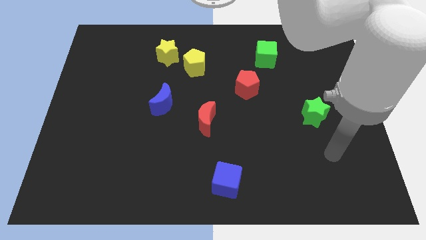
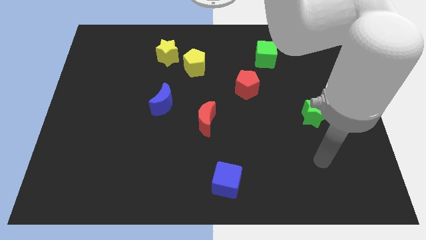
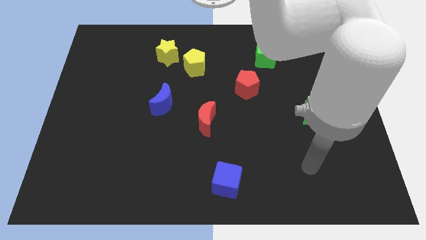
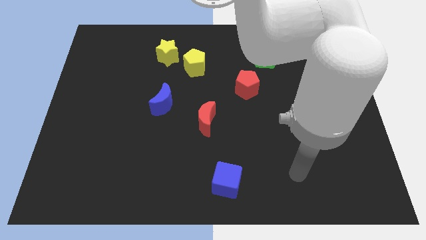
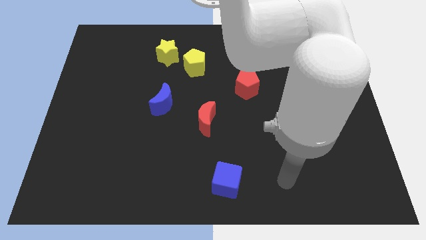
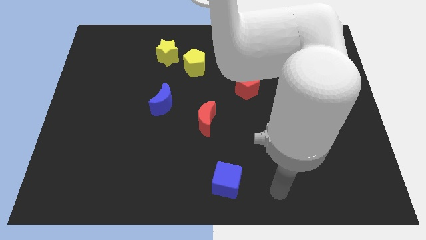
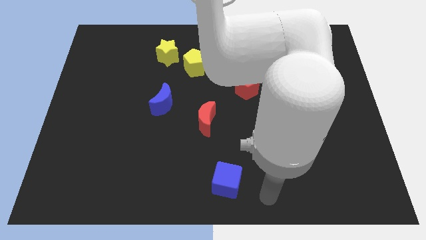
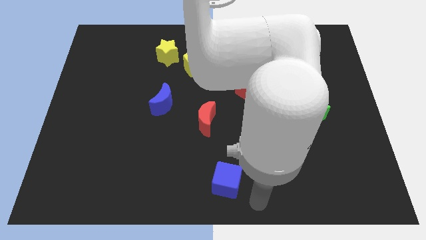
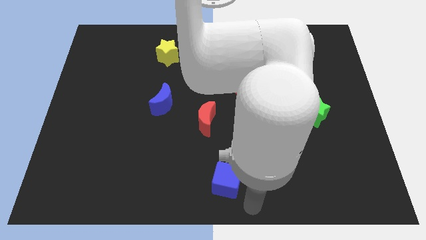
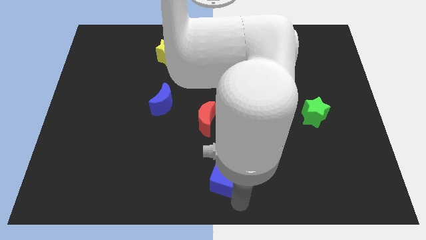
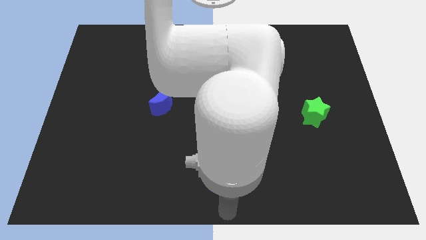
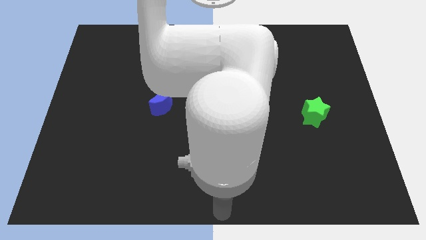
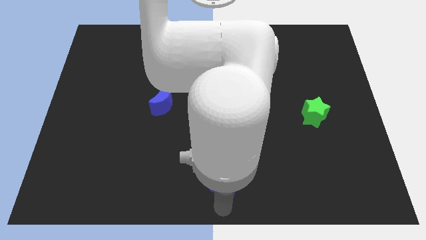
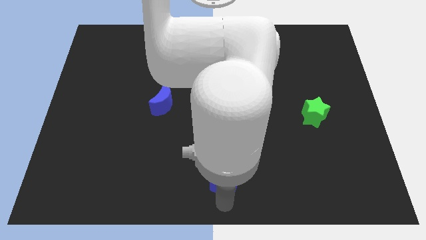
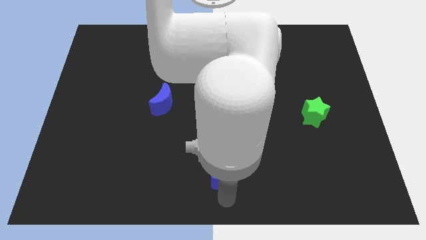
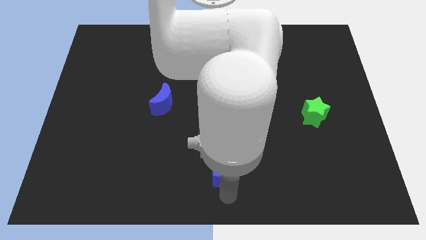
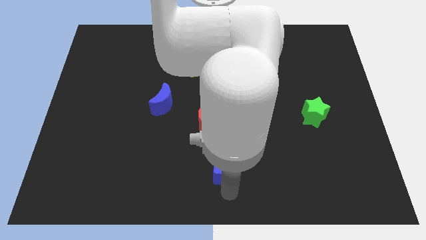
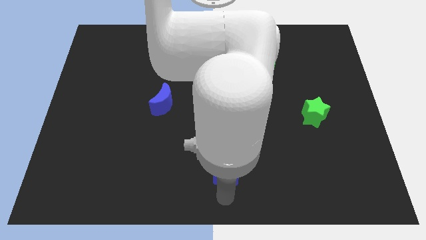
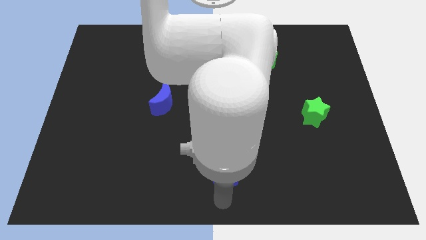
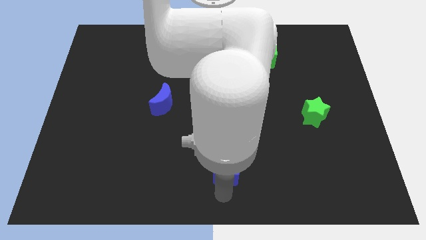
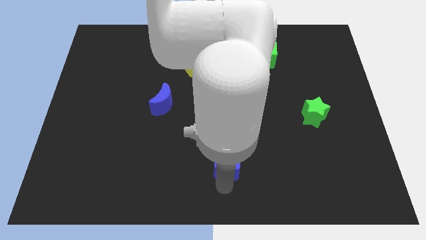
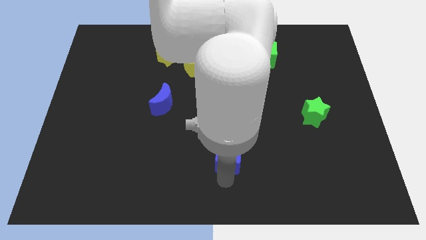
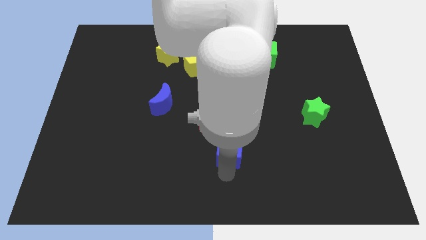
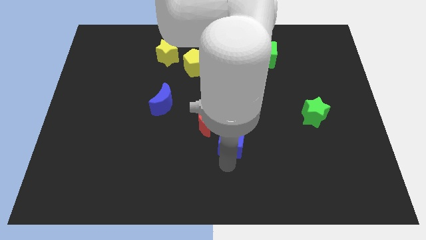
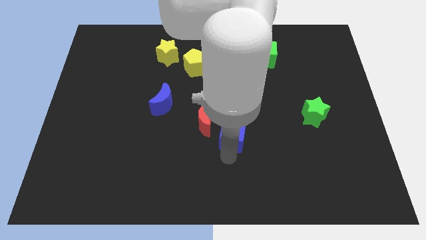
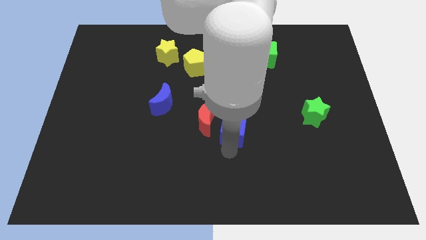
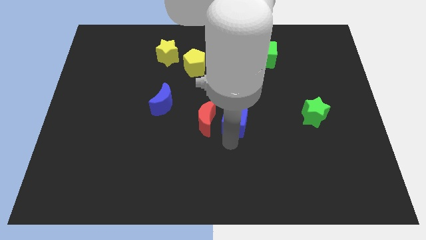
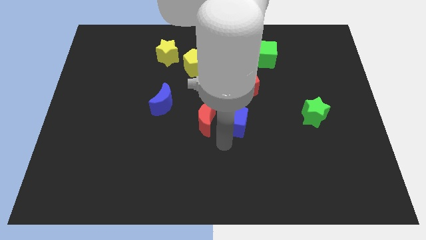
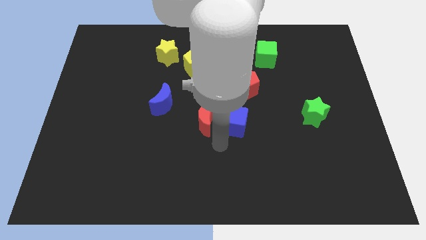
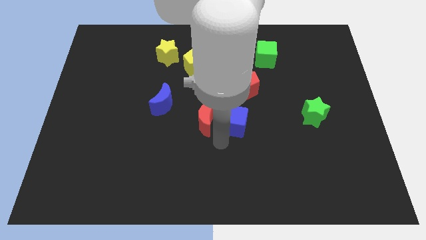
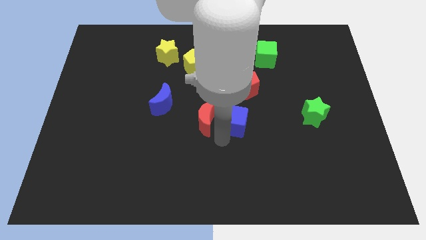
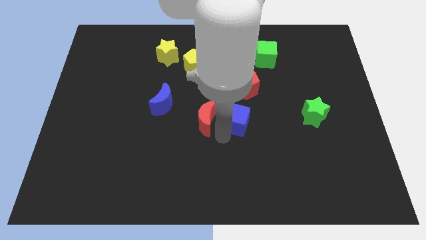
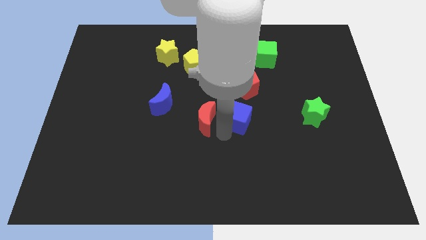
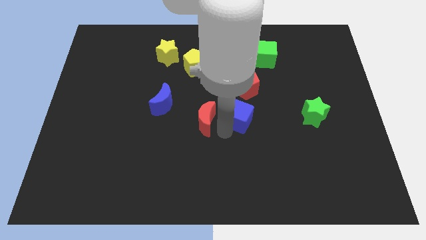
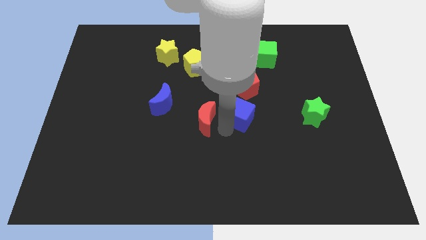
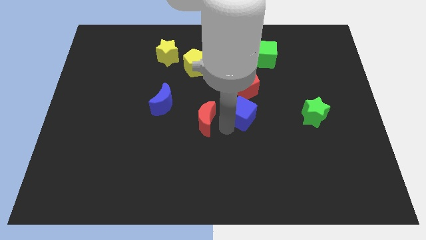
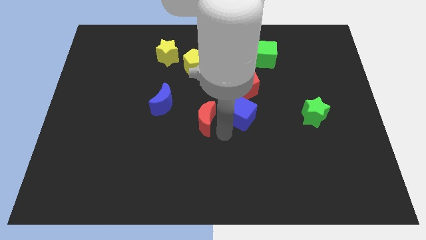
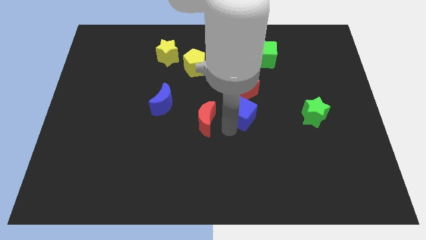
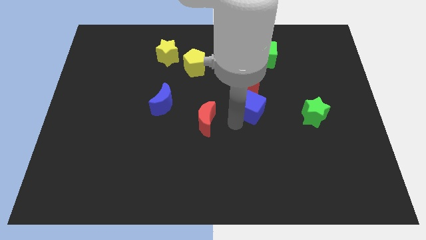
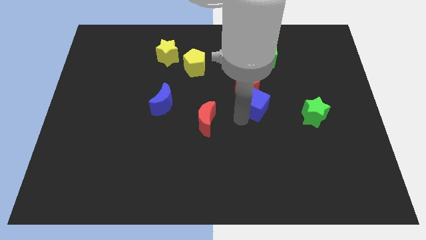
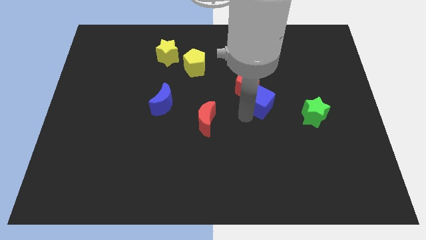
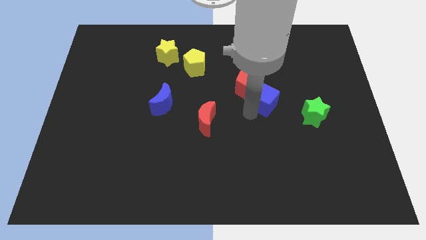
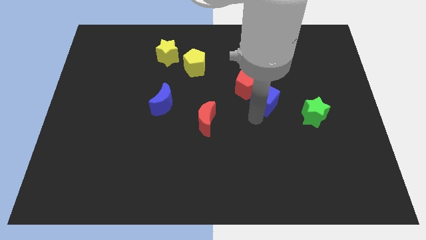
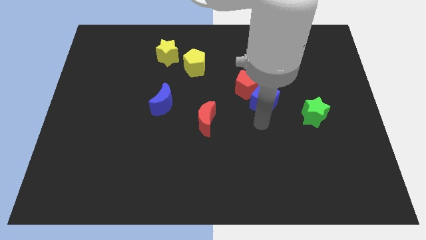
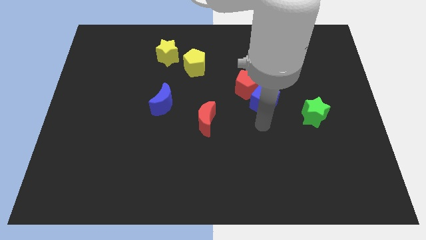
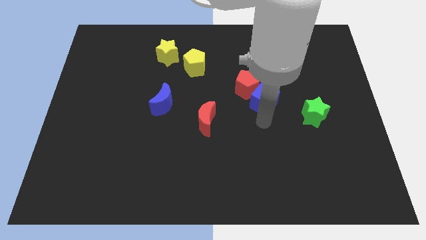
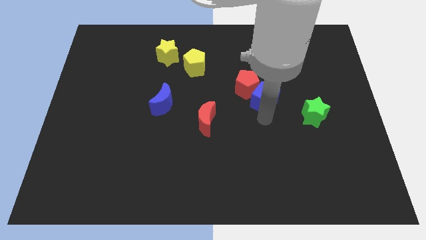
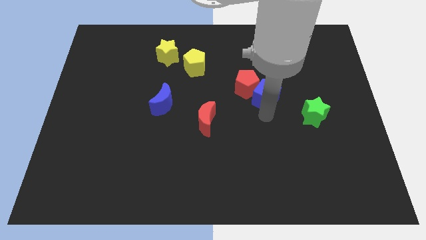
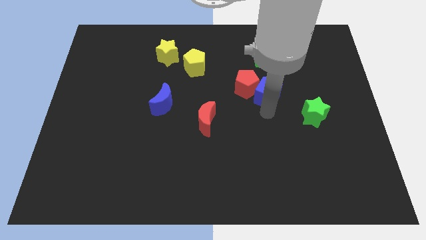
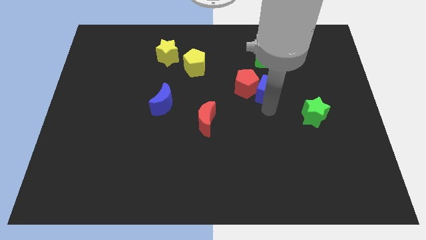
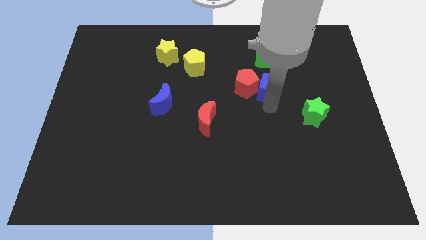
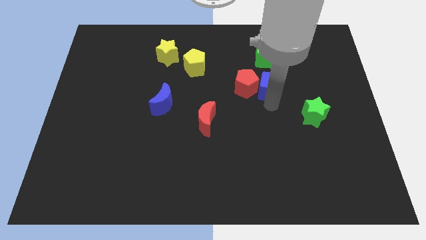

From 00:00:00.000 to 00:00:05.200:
move the blue cube to the top right side of the red pentagon

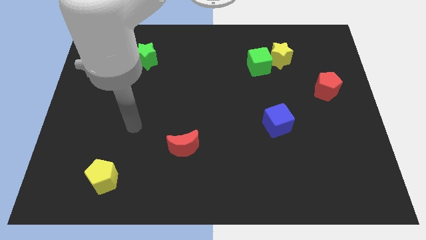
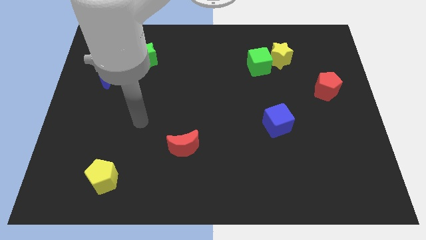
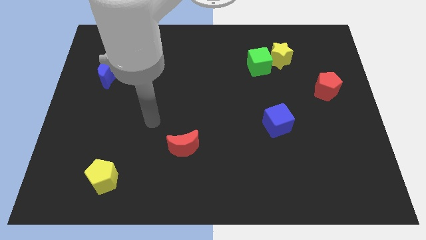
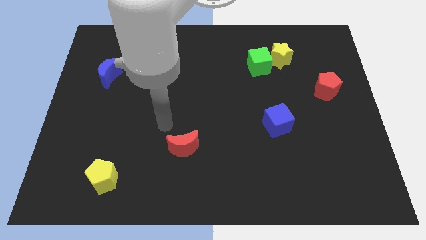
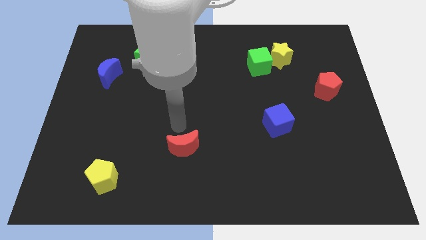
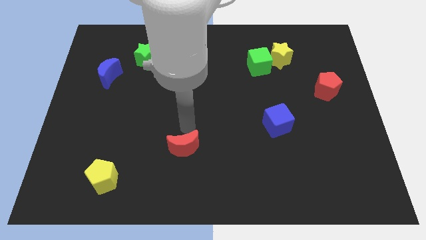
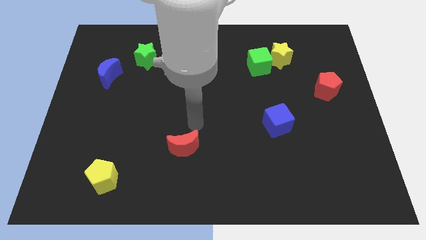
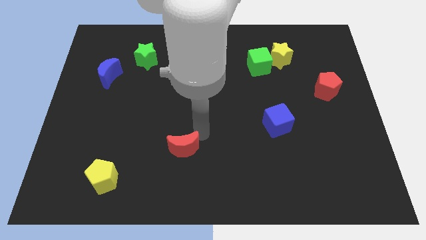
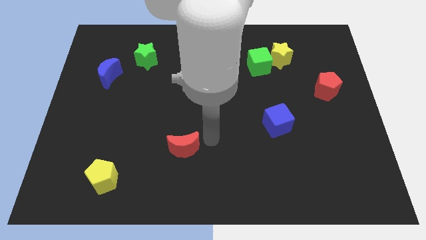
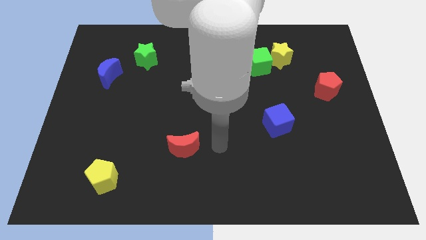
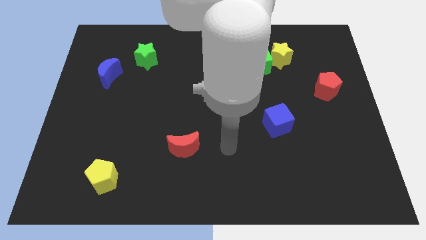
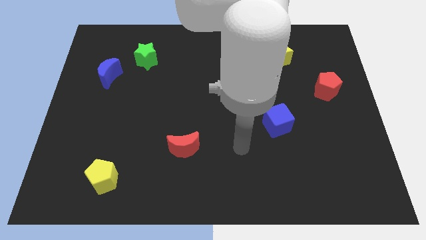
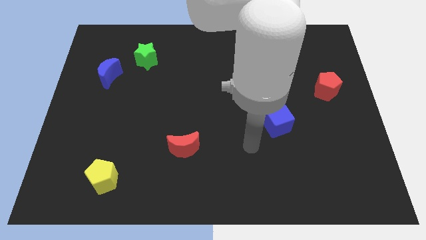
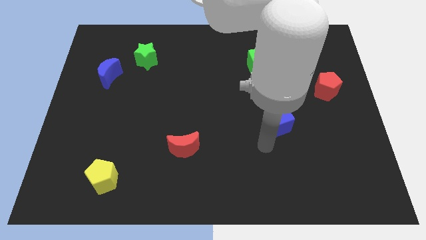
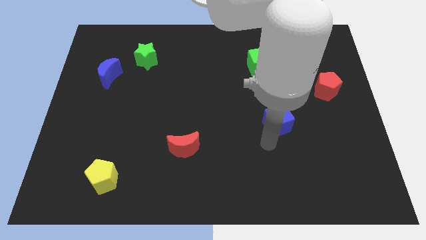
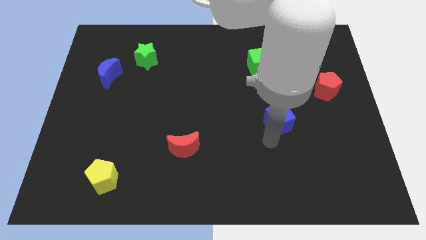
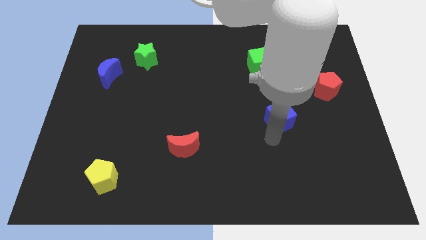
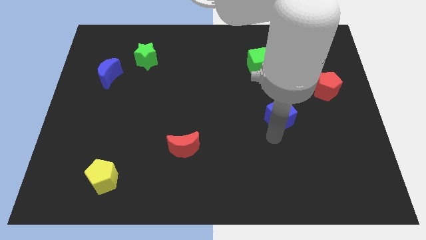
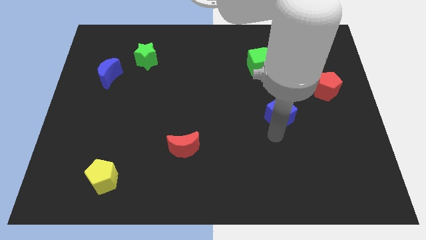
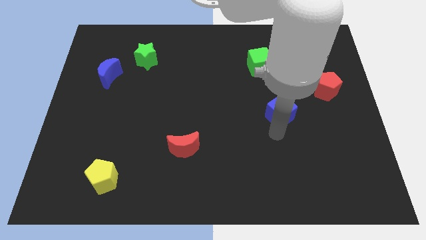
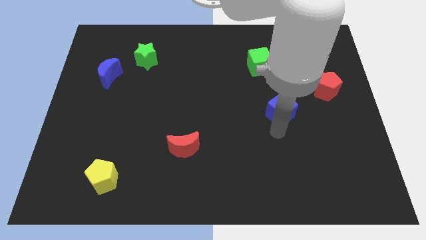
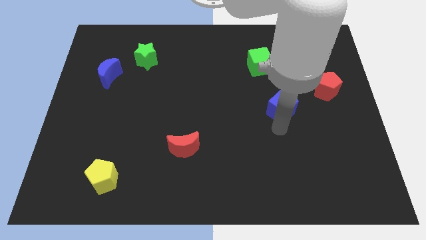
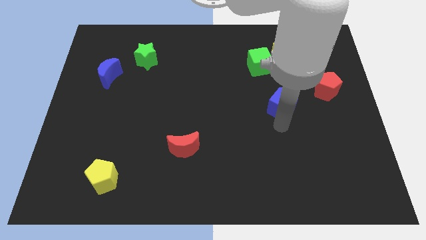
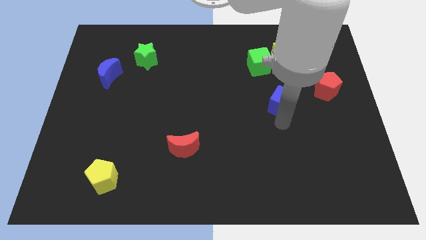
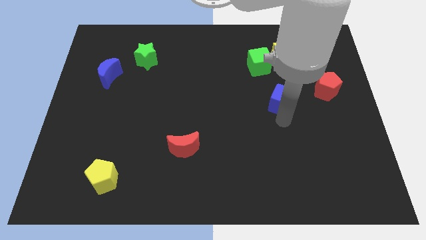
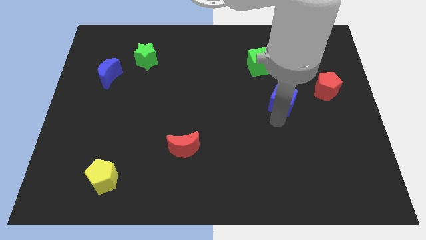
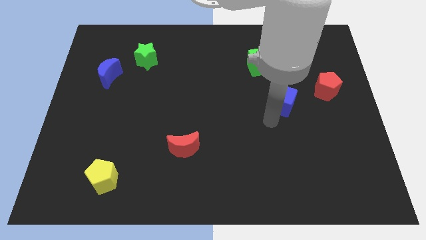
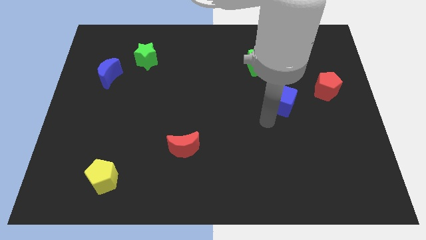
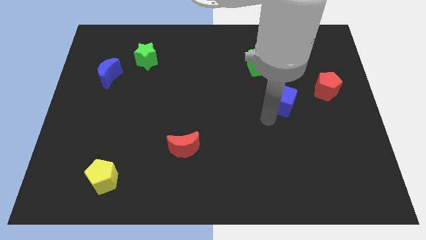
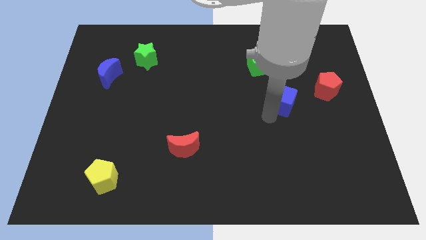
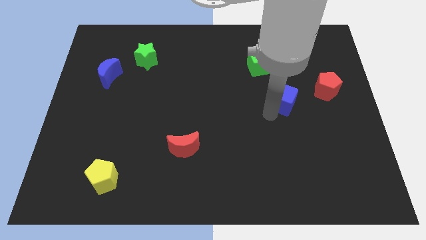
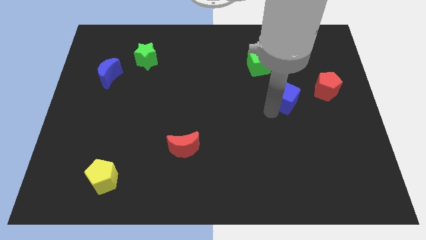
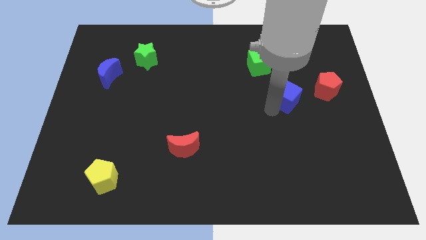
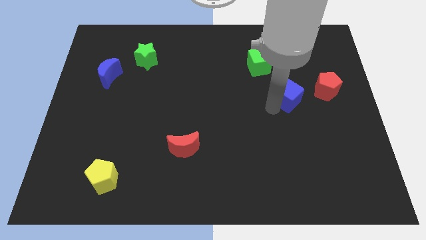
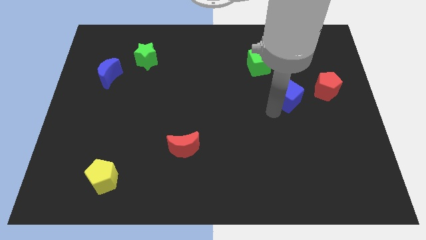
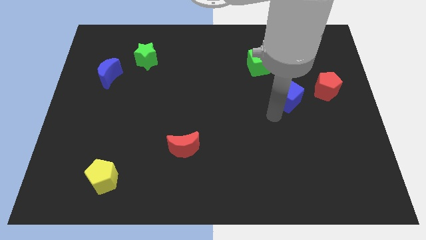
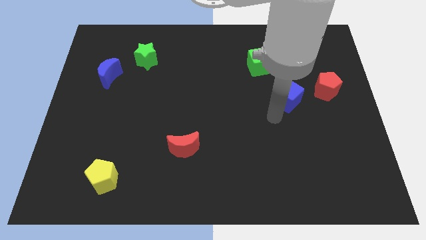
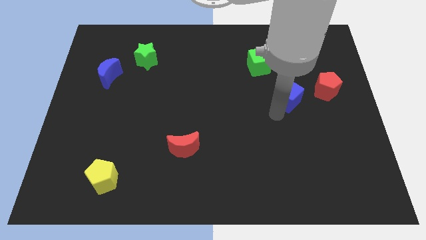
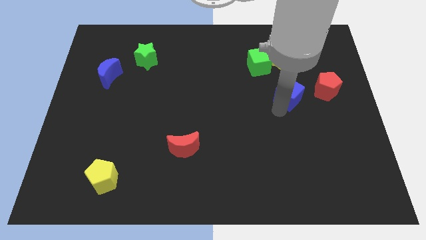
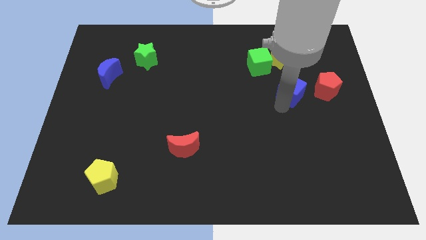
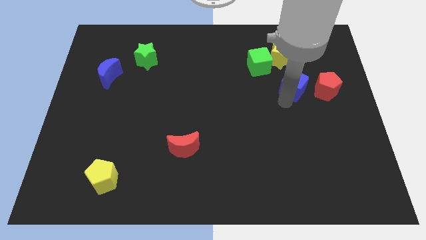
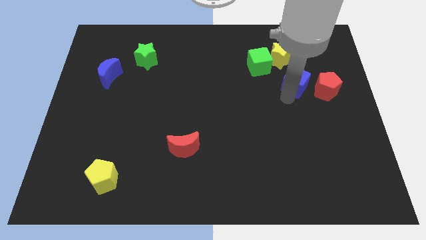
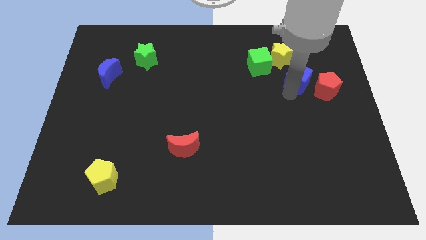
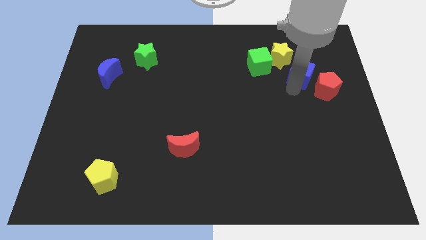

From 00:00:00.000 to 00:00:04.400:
put the blue cube just right of the green cube
